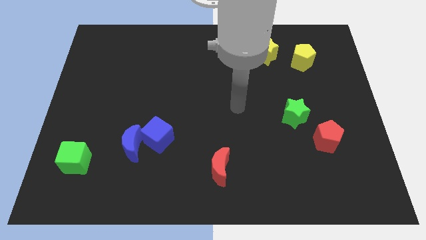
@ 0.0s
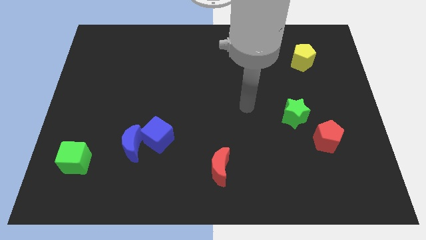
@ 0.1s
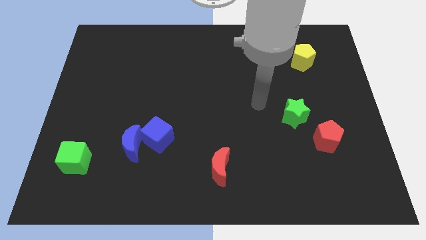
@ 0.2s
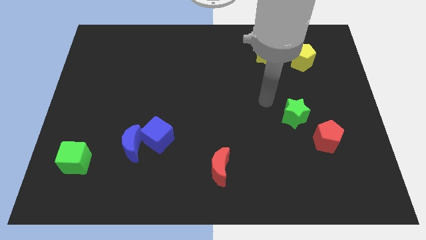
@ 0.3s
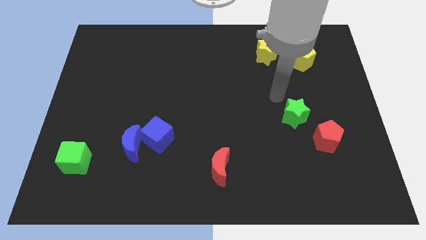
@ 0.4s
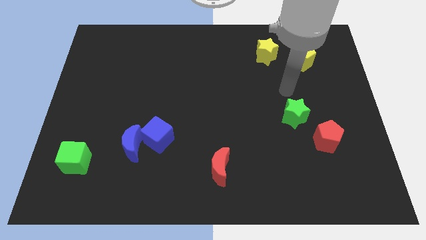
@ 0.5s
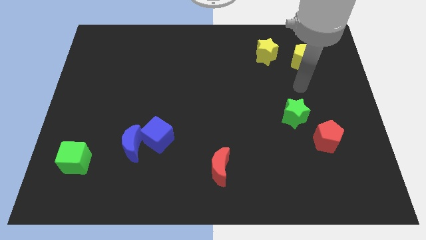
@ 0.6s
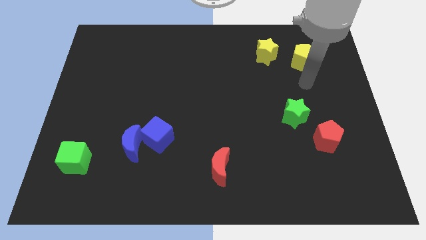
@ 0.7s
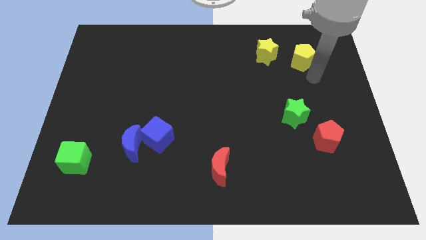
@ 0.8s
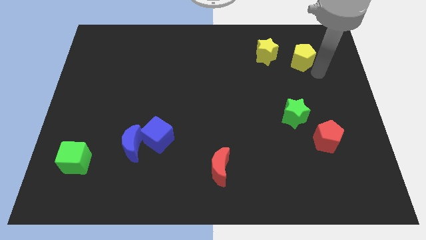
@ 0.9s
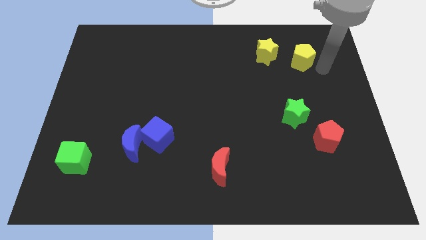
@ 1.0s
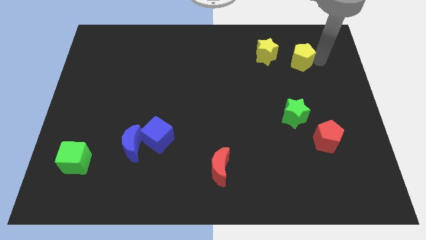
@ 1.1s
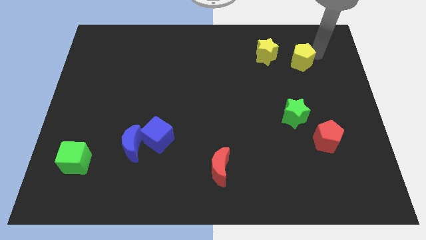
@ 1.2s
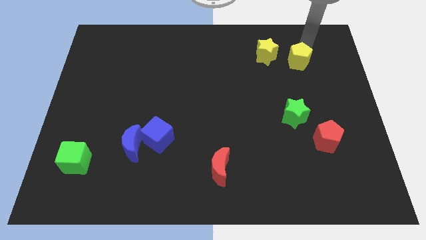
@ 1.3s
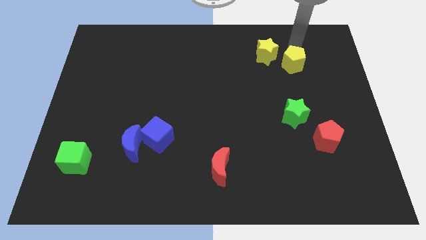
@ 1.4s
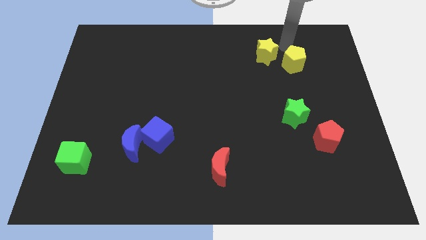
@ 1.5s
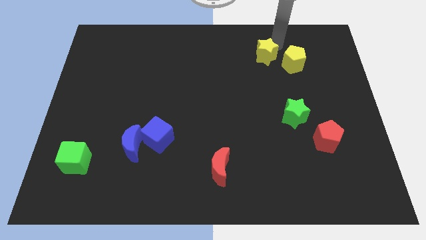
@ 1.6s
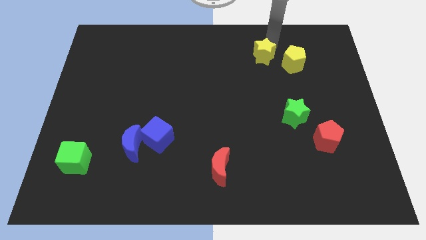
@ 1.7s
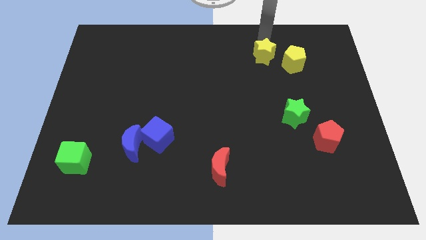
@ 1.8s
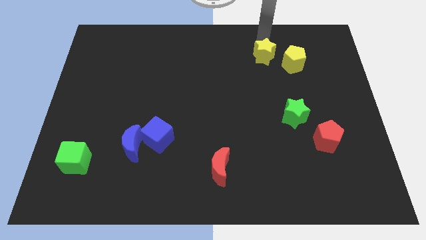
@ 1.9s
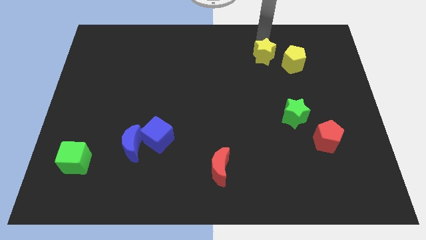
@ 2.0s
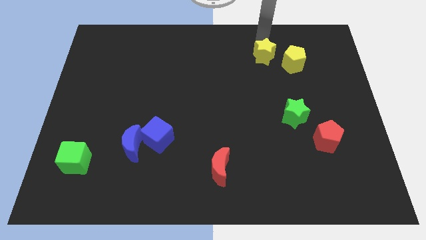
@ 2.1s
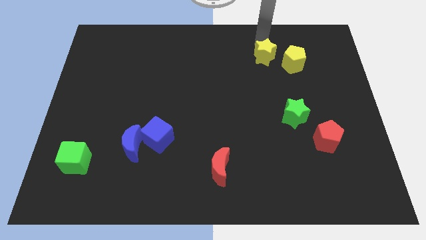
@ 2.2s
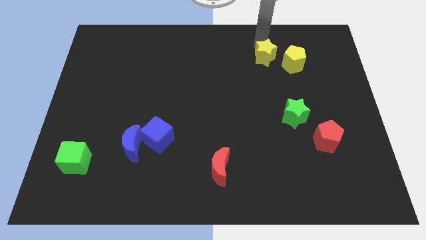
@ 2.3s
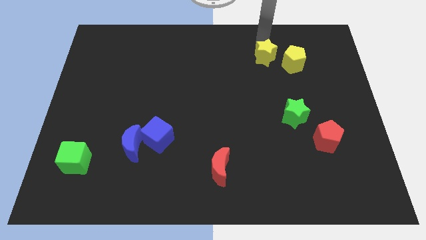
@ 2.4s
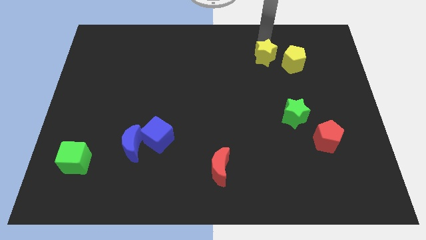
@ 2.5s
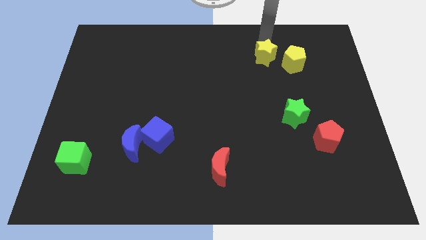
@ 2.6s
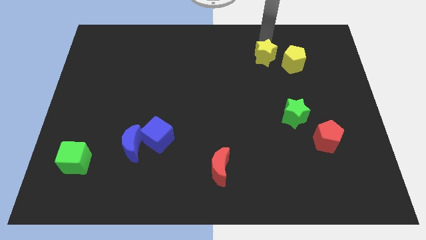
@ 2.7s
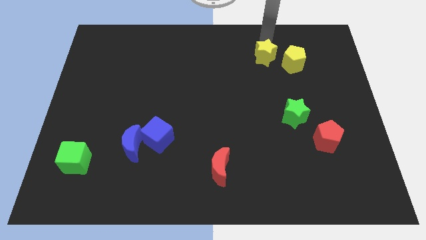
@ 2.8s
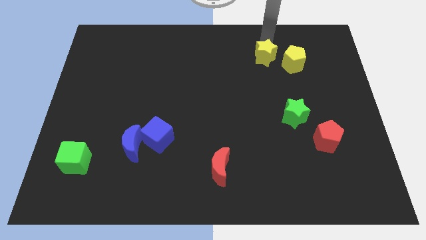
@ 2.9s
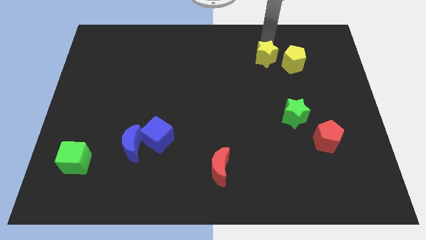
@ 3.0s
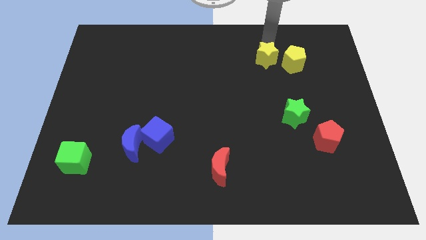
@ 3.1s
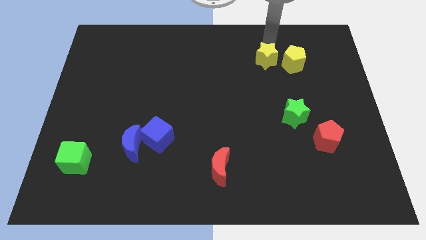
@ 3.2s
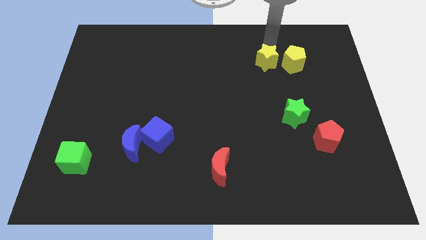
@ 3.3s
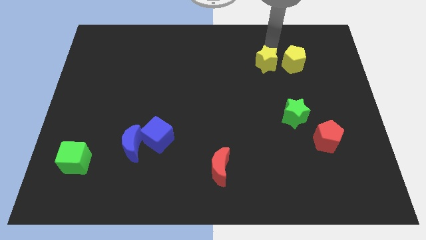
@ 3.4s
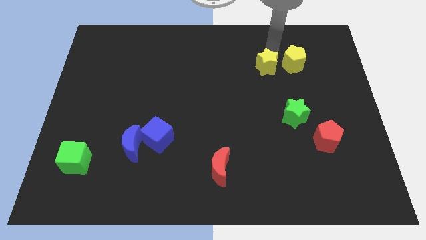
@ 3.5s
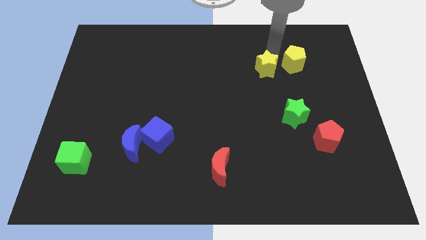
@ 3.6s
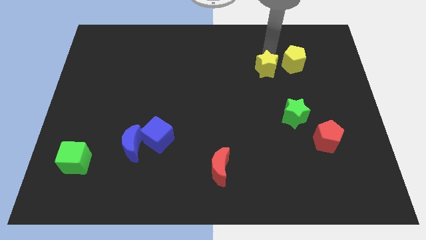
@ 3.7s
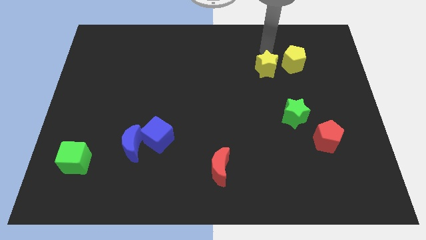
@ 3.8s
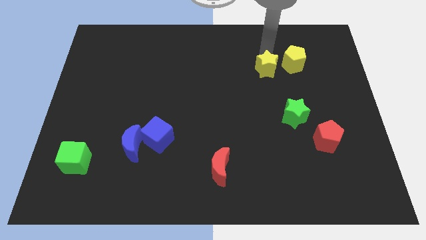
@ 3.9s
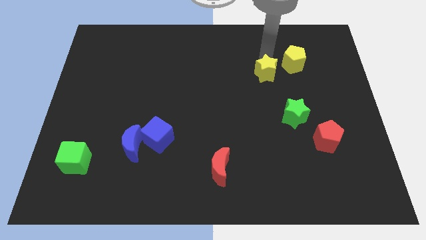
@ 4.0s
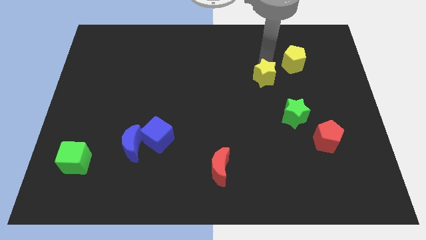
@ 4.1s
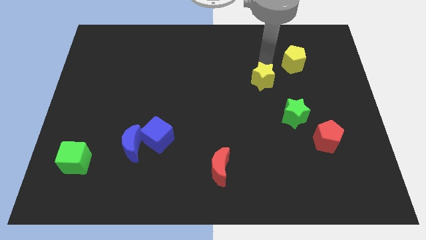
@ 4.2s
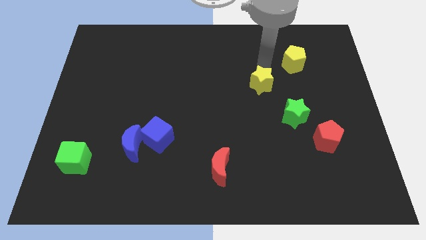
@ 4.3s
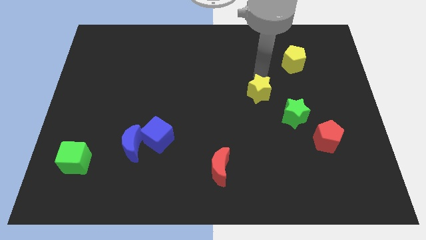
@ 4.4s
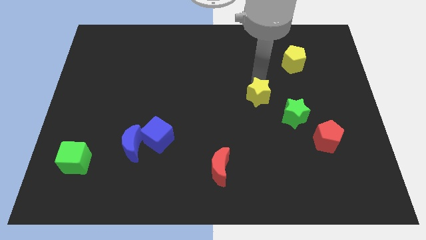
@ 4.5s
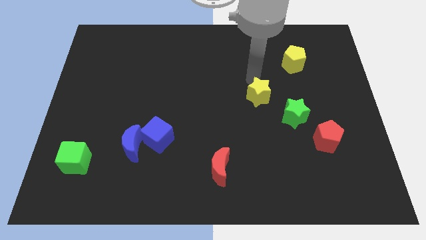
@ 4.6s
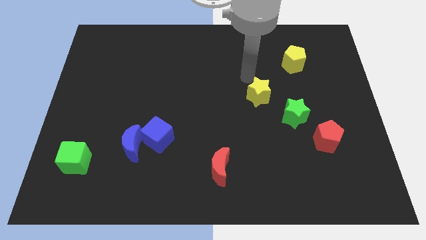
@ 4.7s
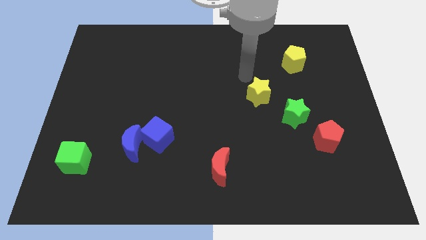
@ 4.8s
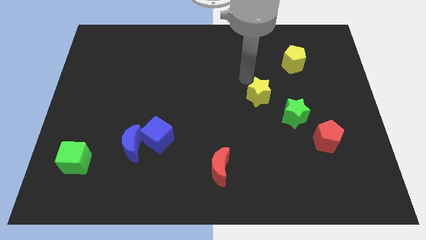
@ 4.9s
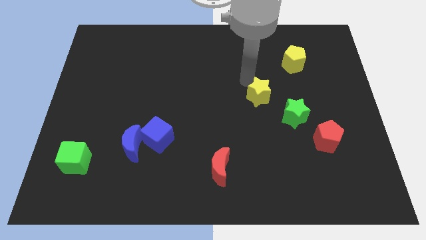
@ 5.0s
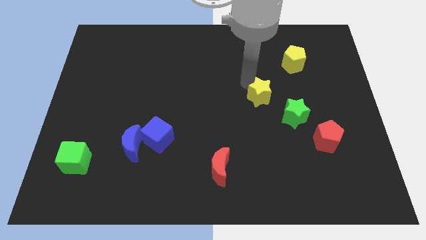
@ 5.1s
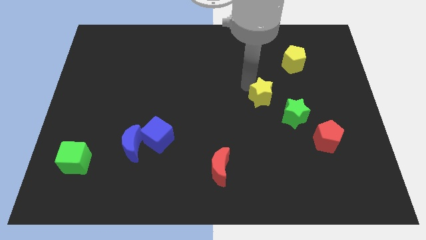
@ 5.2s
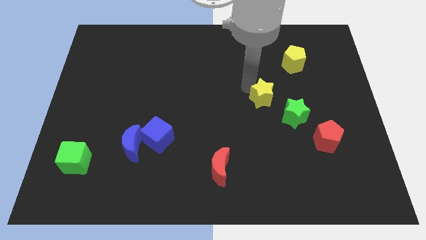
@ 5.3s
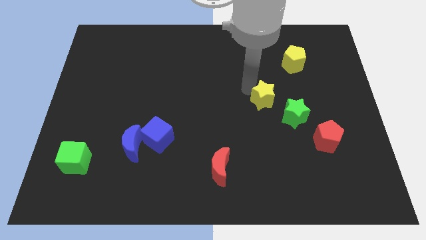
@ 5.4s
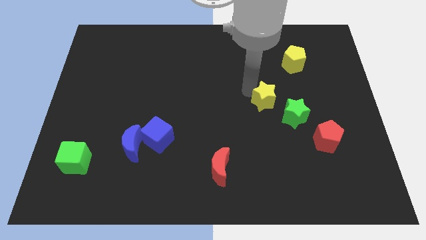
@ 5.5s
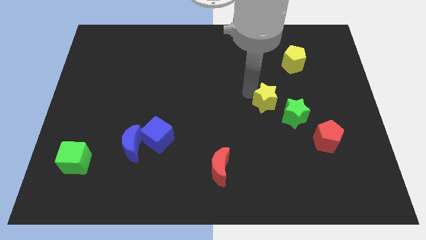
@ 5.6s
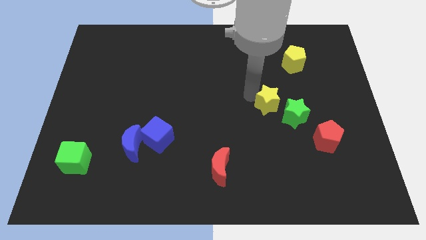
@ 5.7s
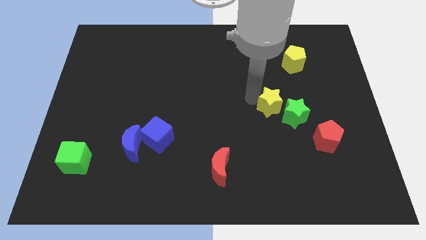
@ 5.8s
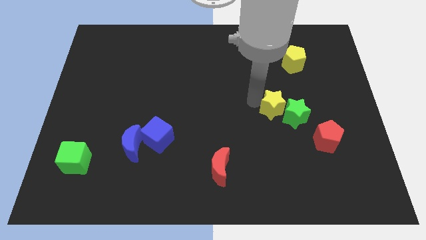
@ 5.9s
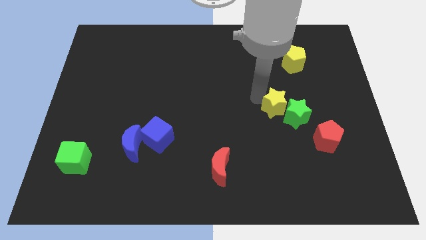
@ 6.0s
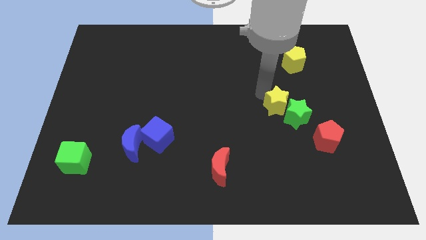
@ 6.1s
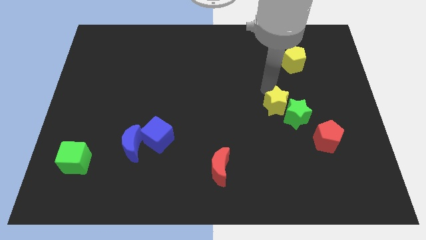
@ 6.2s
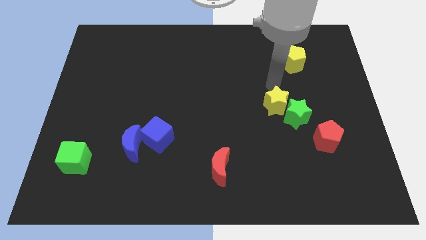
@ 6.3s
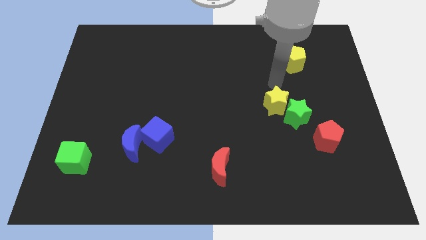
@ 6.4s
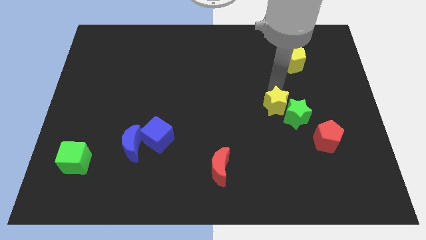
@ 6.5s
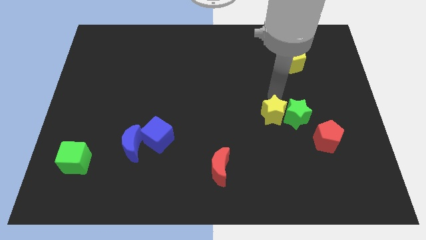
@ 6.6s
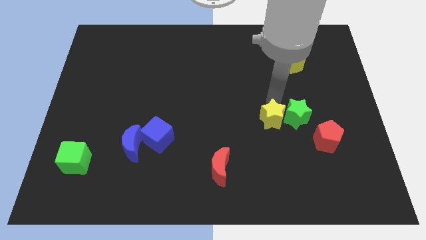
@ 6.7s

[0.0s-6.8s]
slide the yellow star downwards

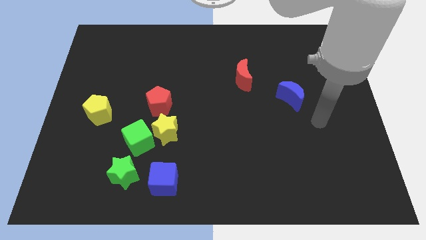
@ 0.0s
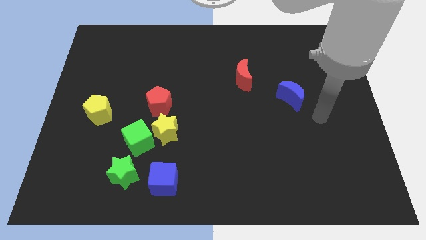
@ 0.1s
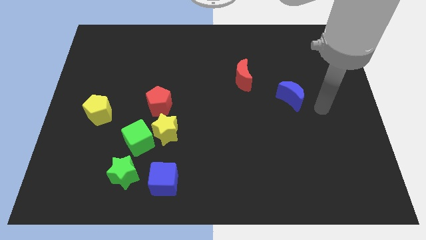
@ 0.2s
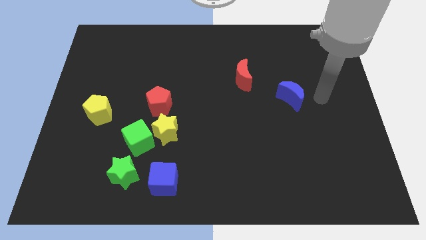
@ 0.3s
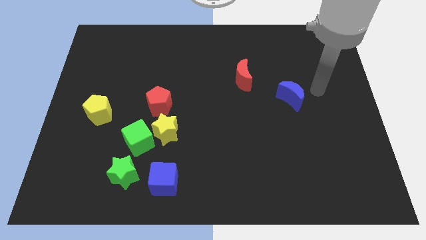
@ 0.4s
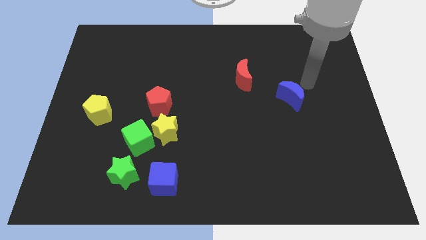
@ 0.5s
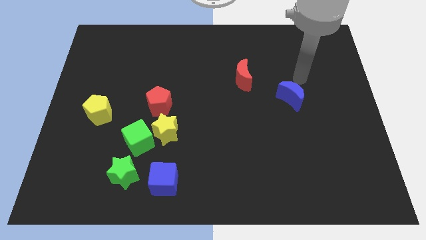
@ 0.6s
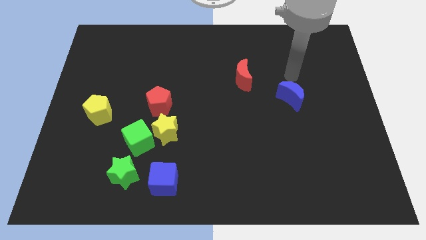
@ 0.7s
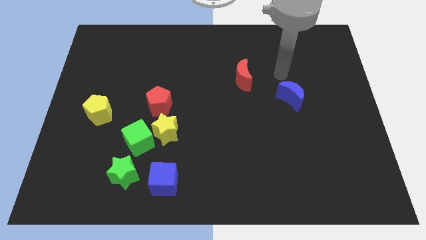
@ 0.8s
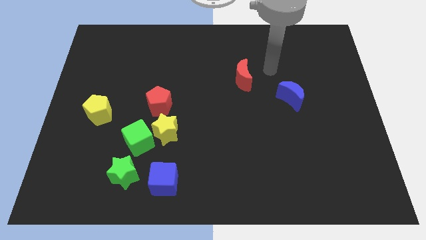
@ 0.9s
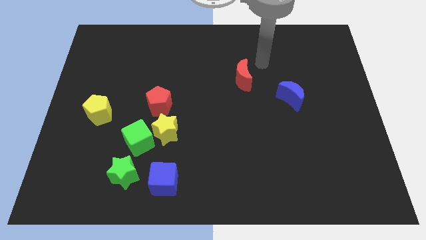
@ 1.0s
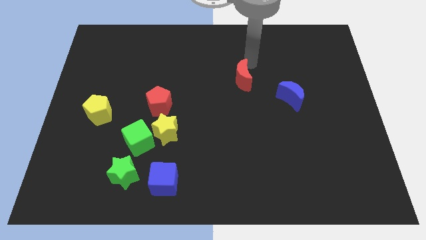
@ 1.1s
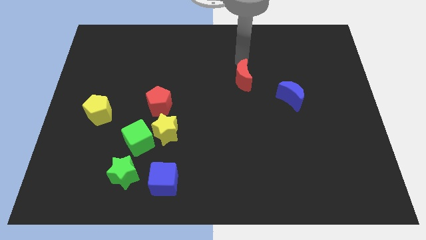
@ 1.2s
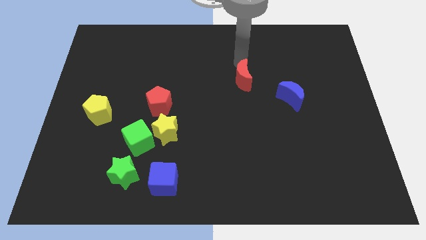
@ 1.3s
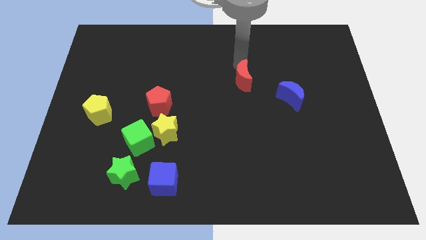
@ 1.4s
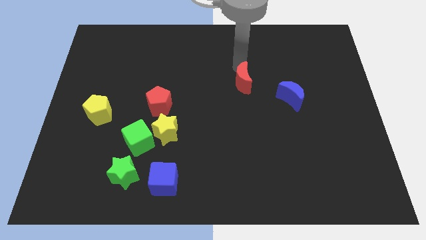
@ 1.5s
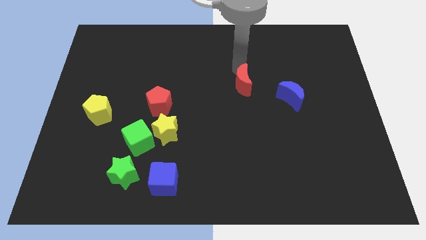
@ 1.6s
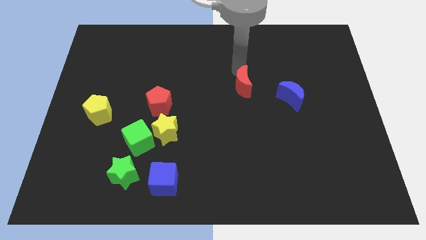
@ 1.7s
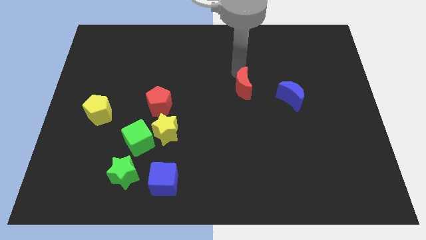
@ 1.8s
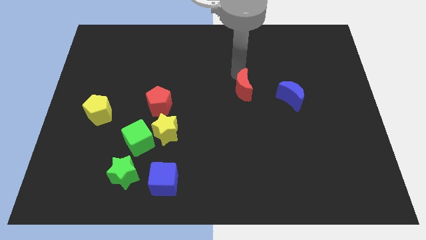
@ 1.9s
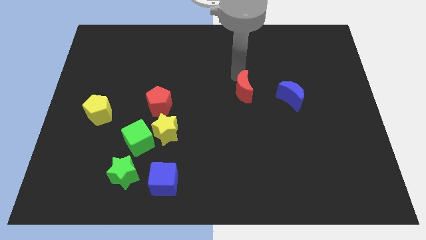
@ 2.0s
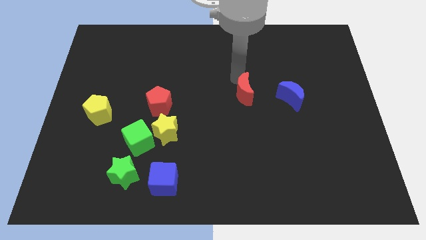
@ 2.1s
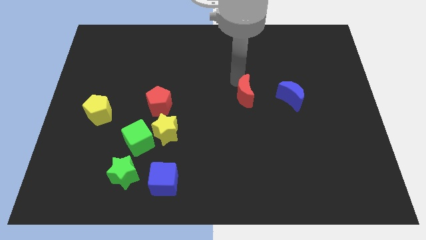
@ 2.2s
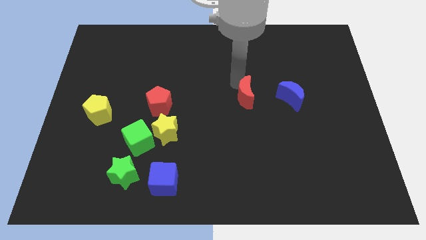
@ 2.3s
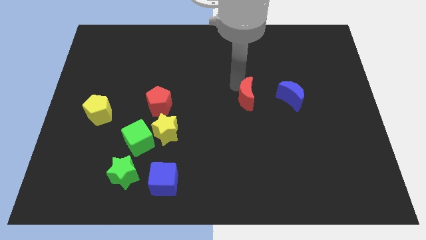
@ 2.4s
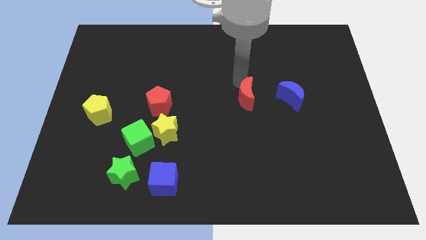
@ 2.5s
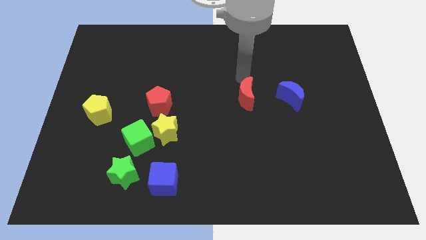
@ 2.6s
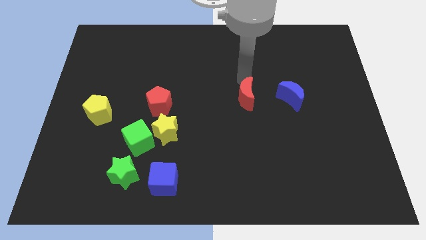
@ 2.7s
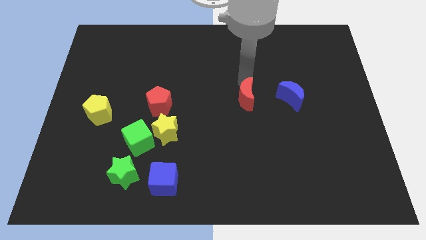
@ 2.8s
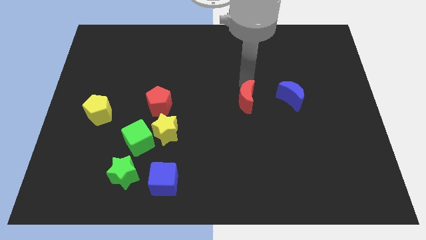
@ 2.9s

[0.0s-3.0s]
push the red moon a little down
